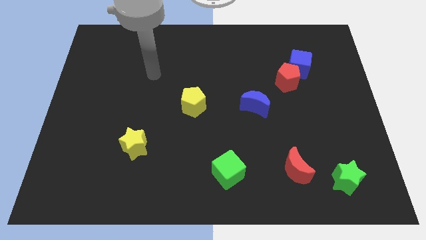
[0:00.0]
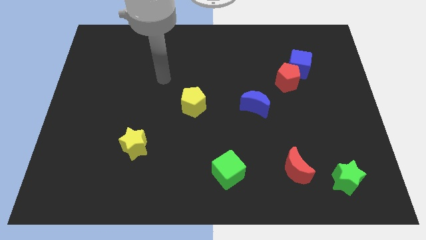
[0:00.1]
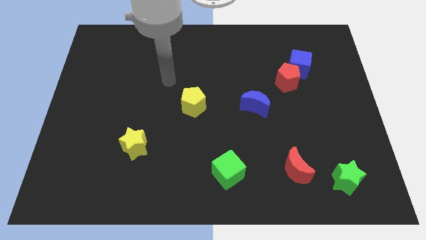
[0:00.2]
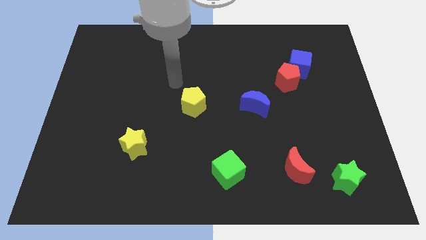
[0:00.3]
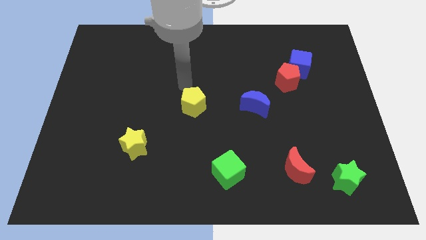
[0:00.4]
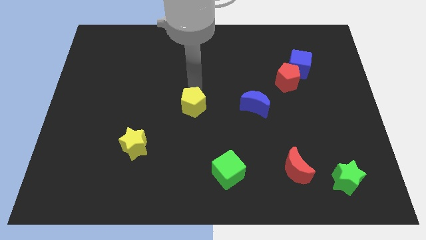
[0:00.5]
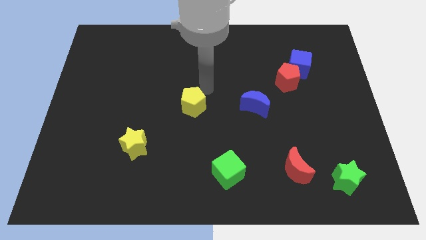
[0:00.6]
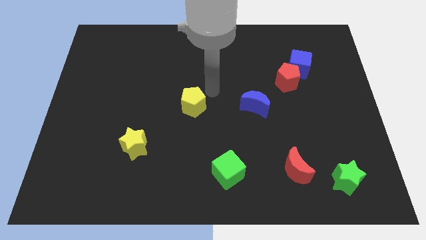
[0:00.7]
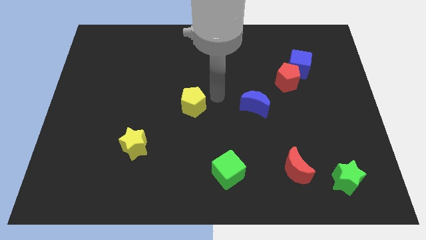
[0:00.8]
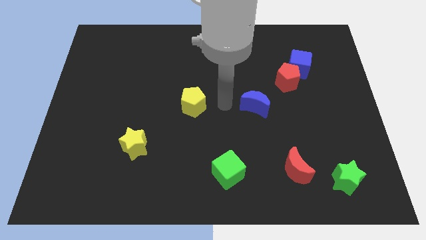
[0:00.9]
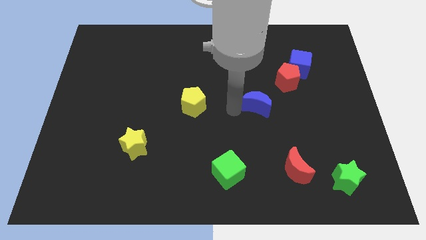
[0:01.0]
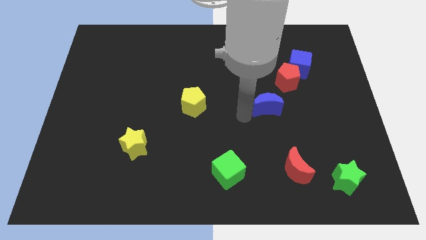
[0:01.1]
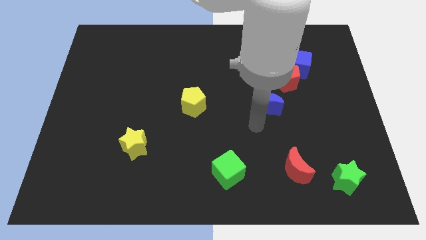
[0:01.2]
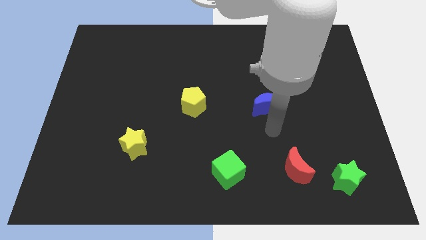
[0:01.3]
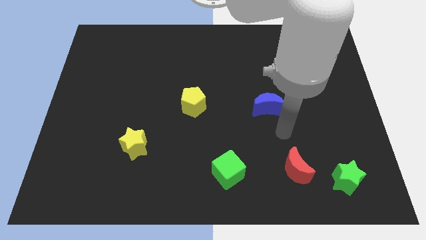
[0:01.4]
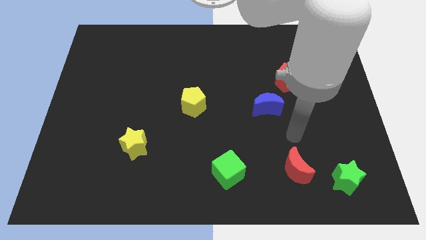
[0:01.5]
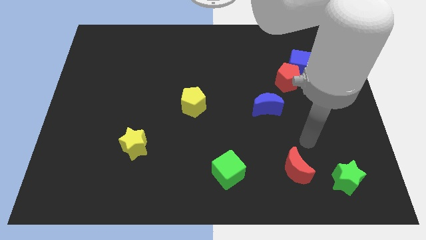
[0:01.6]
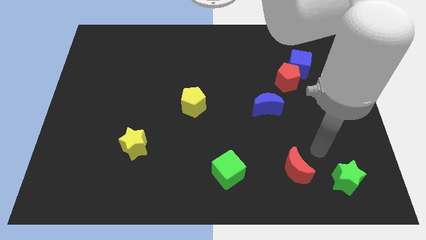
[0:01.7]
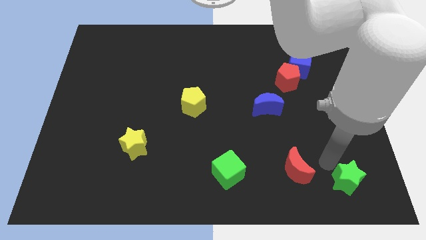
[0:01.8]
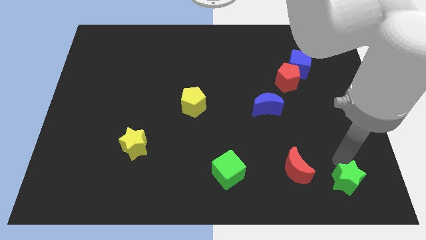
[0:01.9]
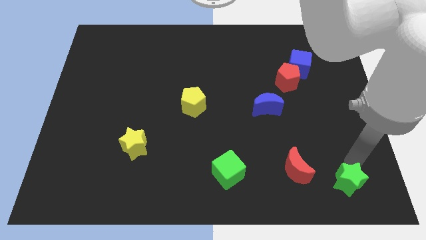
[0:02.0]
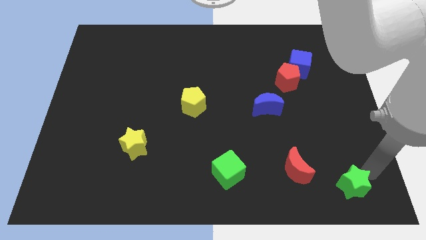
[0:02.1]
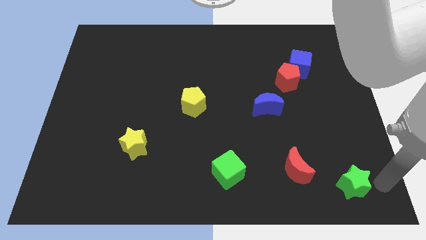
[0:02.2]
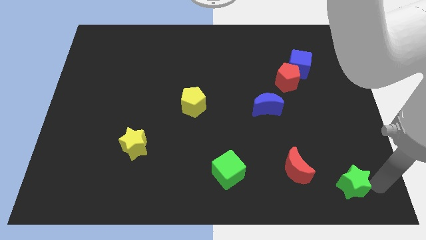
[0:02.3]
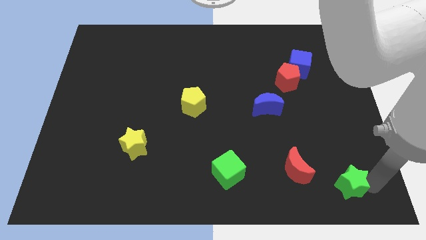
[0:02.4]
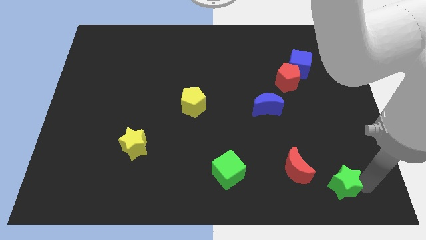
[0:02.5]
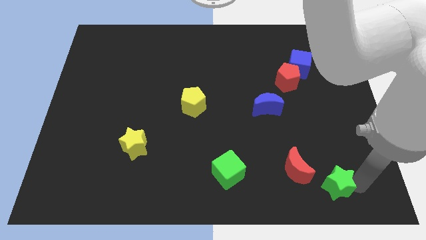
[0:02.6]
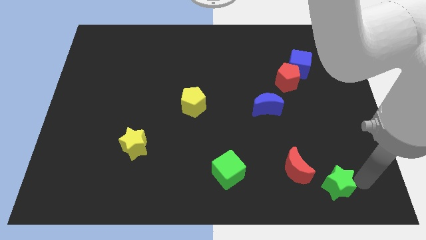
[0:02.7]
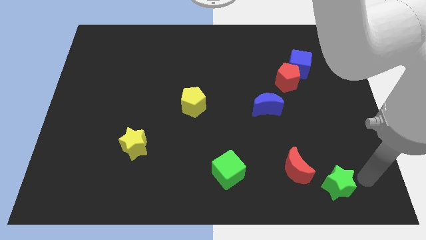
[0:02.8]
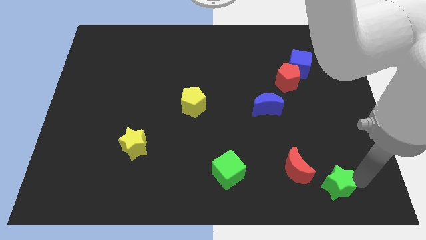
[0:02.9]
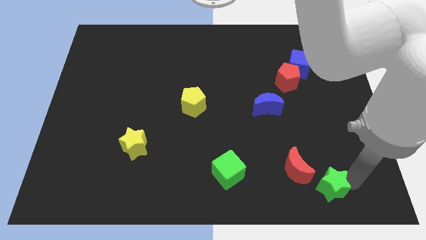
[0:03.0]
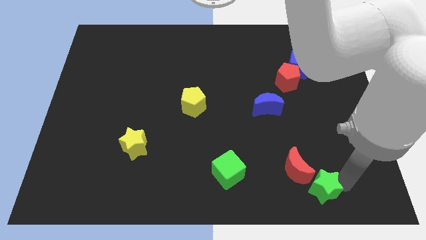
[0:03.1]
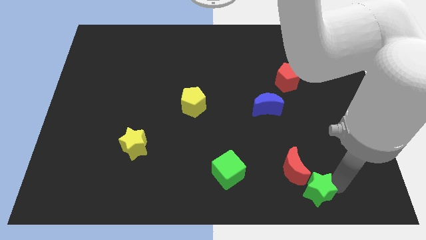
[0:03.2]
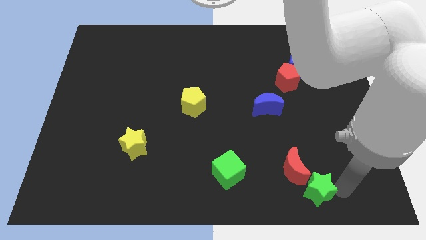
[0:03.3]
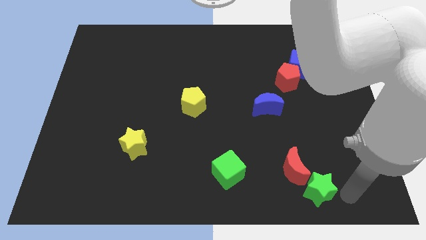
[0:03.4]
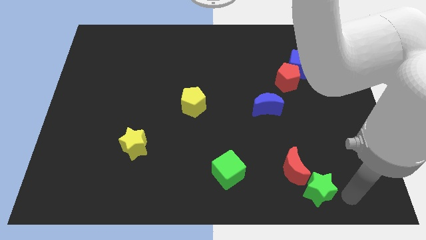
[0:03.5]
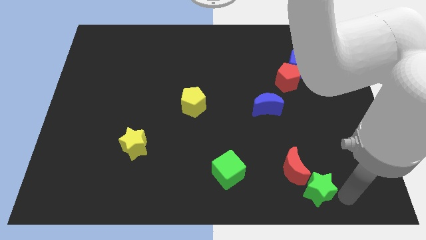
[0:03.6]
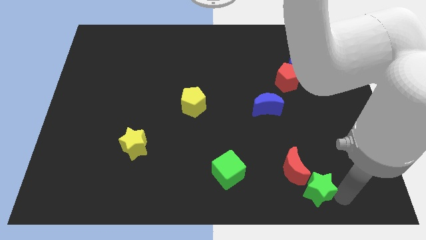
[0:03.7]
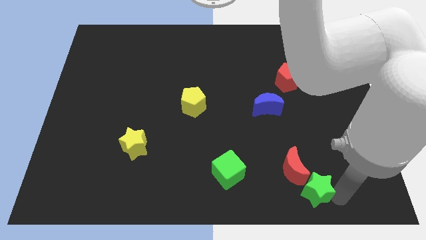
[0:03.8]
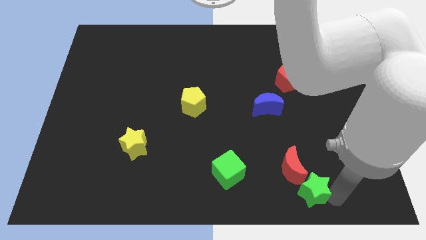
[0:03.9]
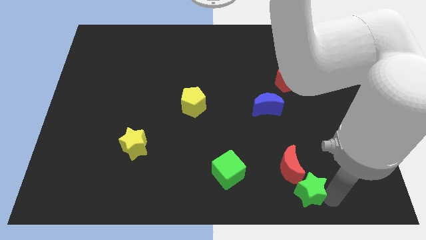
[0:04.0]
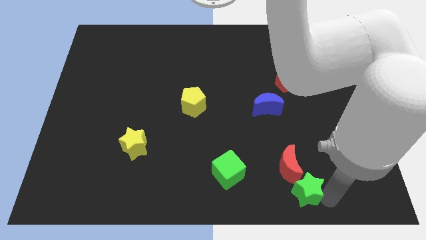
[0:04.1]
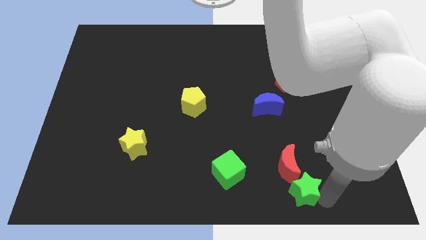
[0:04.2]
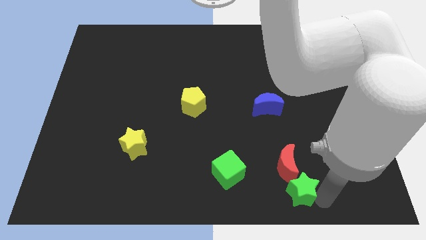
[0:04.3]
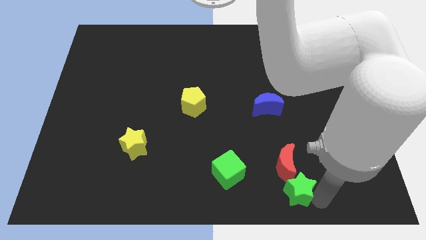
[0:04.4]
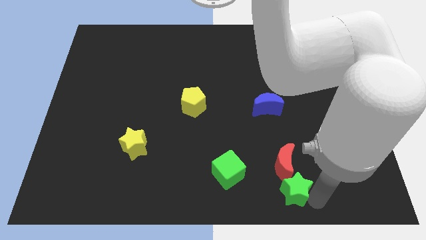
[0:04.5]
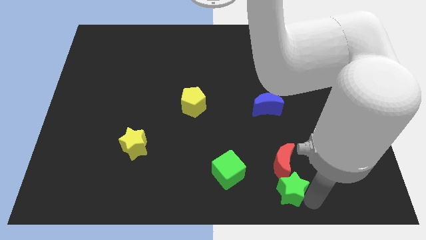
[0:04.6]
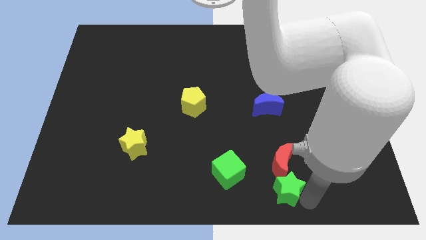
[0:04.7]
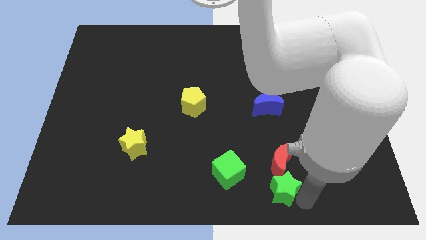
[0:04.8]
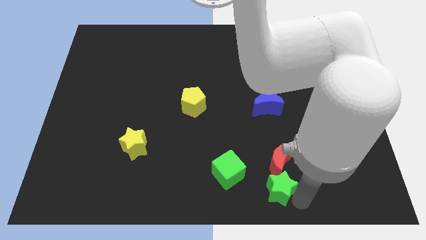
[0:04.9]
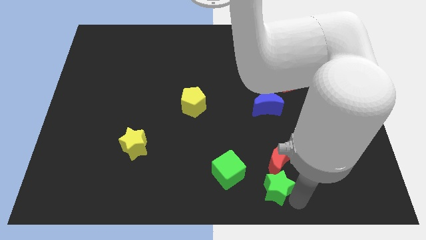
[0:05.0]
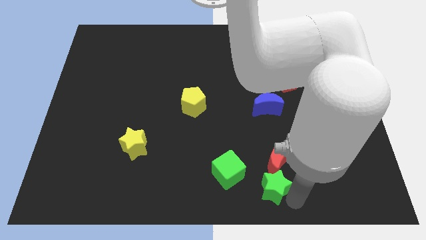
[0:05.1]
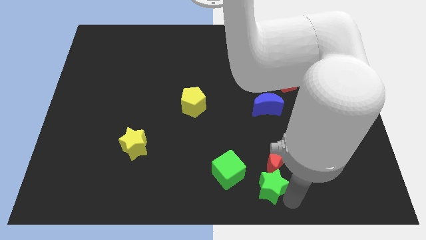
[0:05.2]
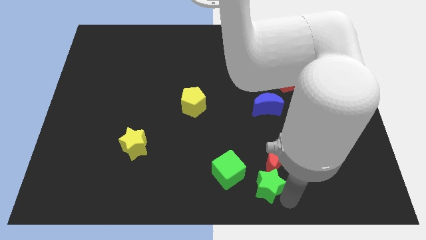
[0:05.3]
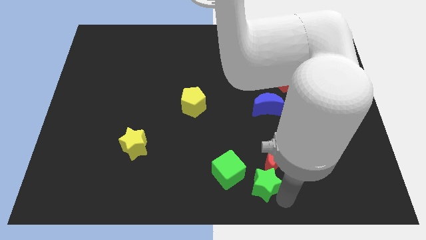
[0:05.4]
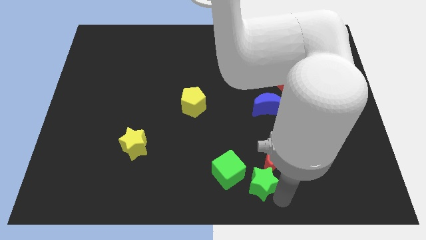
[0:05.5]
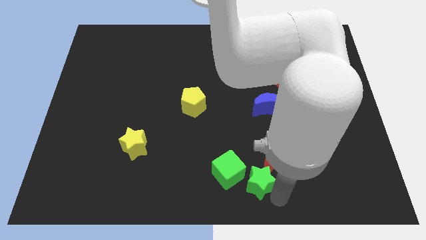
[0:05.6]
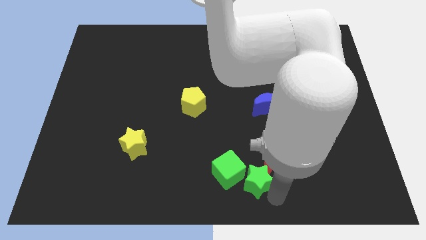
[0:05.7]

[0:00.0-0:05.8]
put the green star to the green cube

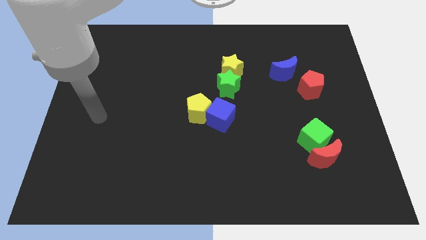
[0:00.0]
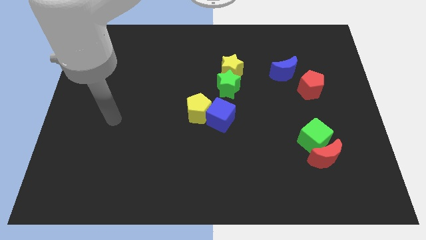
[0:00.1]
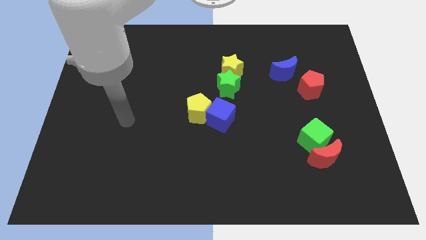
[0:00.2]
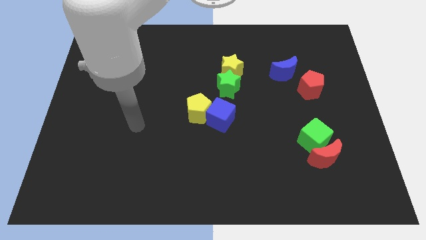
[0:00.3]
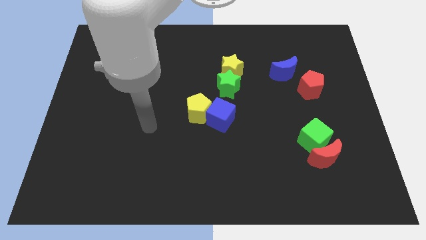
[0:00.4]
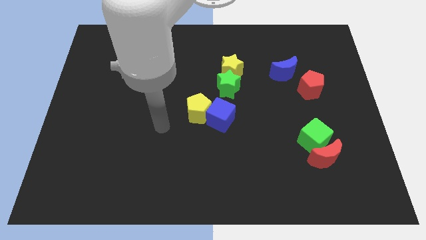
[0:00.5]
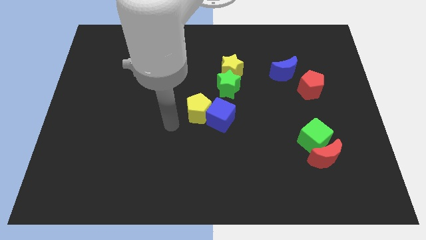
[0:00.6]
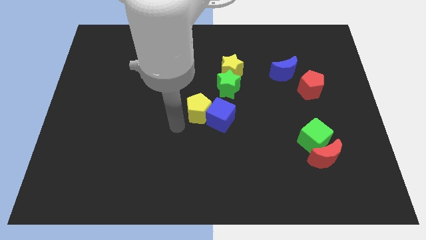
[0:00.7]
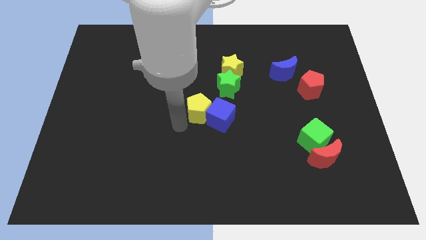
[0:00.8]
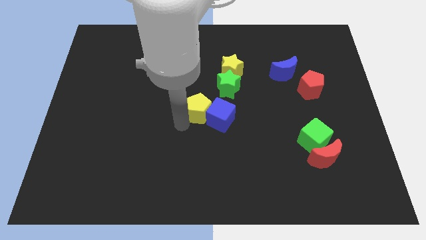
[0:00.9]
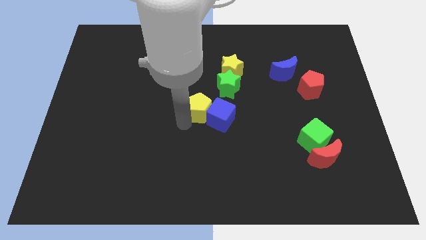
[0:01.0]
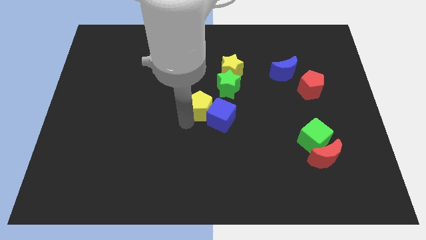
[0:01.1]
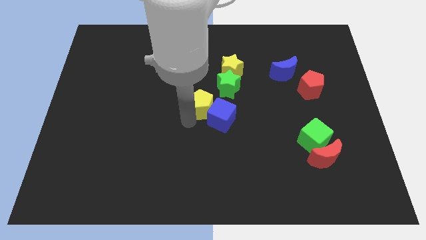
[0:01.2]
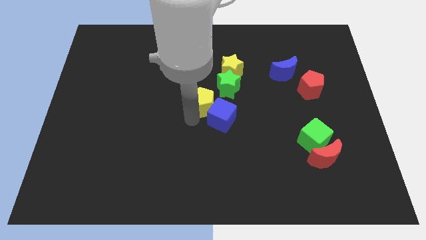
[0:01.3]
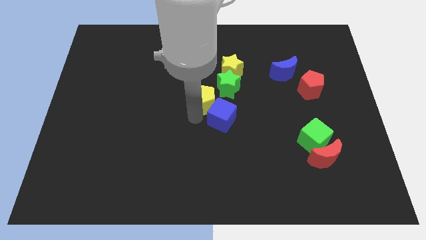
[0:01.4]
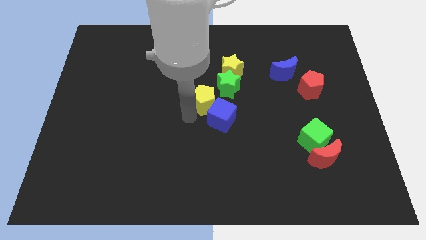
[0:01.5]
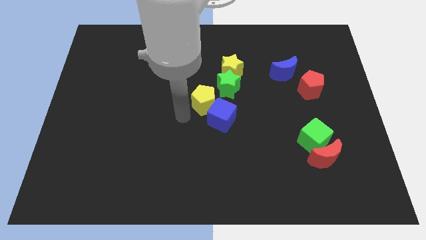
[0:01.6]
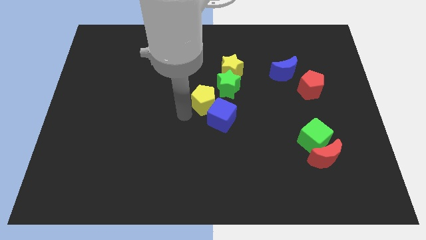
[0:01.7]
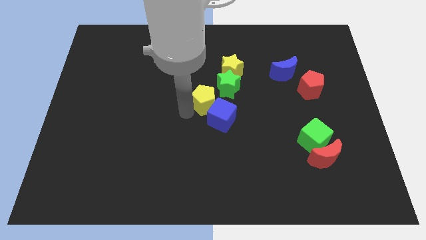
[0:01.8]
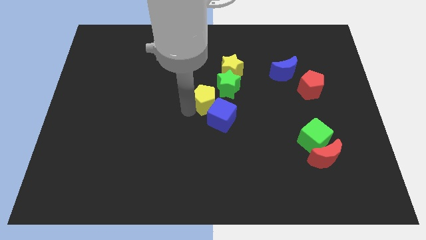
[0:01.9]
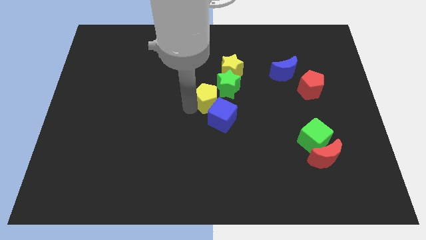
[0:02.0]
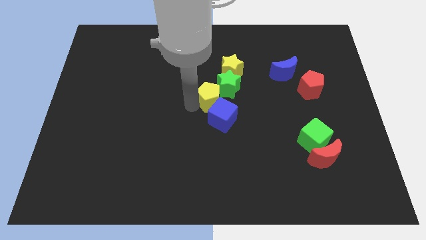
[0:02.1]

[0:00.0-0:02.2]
push the yellow pentagon next to the green star
